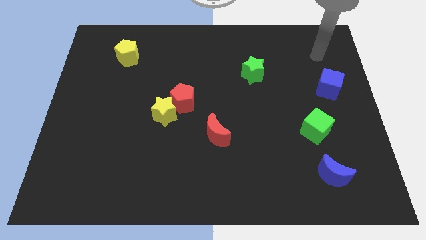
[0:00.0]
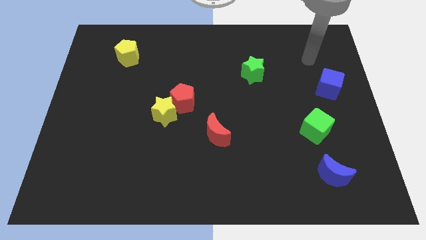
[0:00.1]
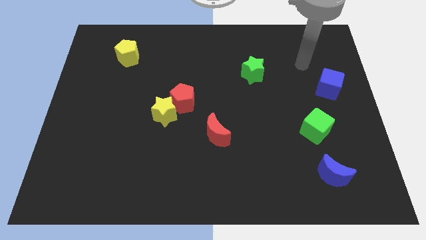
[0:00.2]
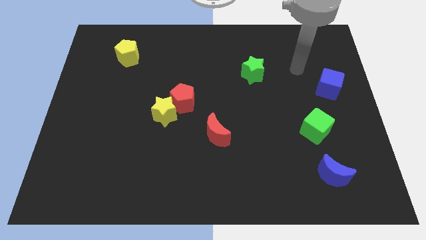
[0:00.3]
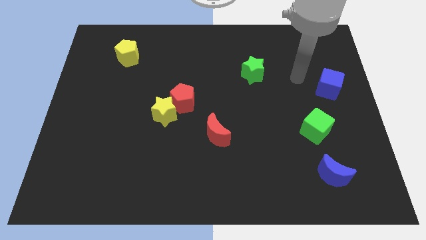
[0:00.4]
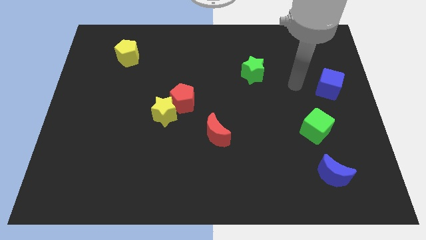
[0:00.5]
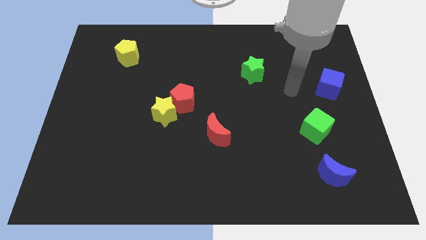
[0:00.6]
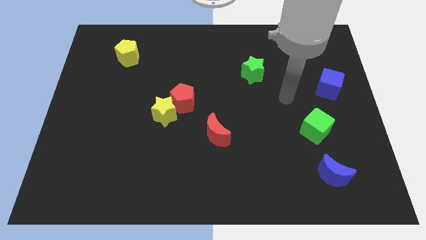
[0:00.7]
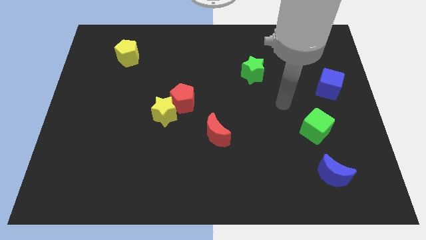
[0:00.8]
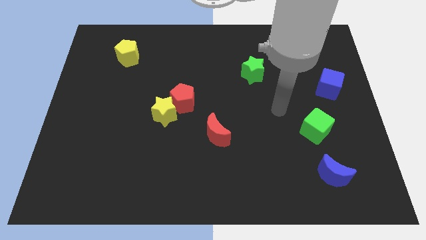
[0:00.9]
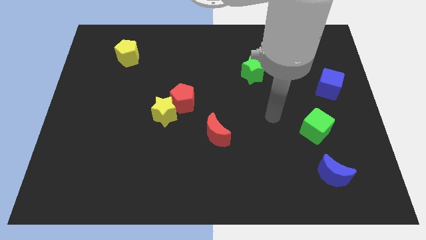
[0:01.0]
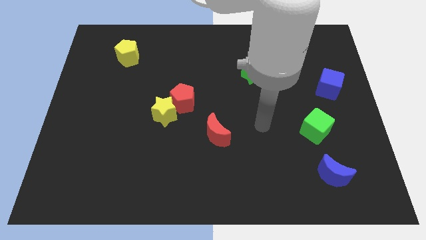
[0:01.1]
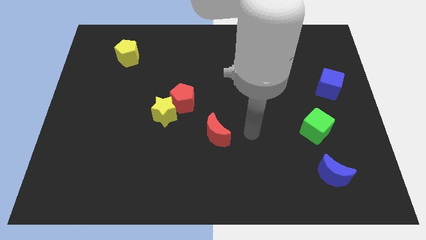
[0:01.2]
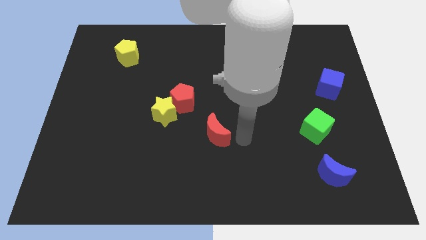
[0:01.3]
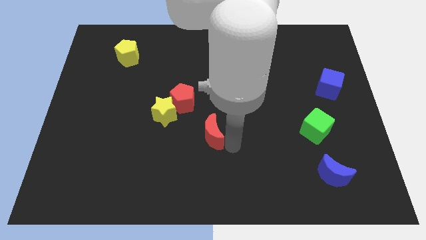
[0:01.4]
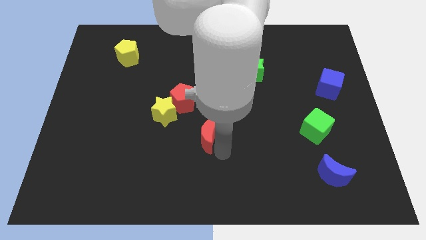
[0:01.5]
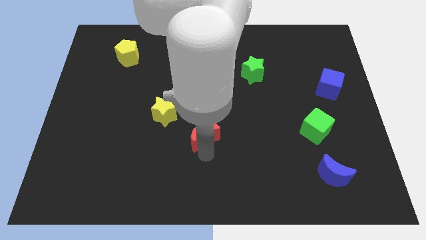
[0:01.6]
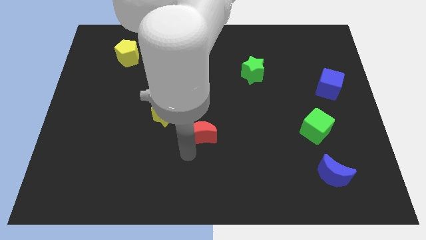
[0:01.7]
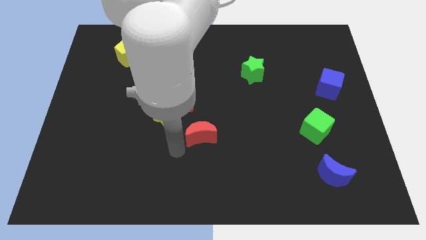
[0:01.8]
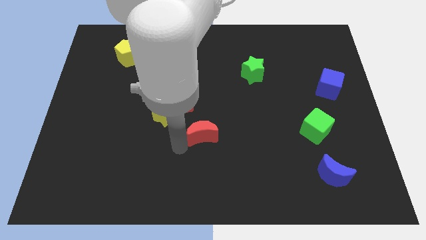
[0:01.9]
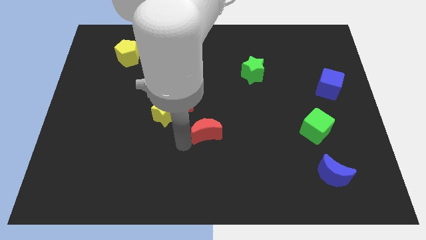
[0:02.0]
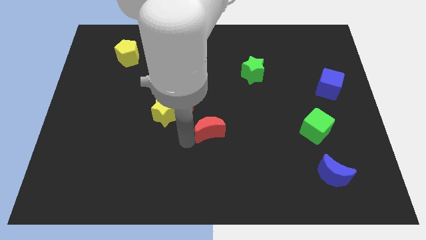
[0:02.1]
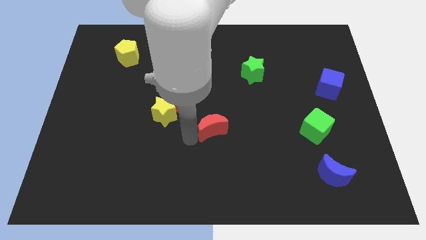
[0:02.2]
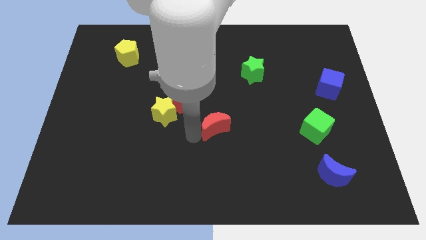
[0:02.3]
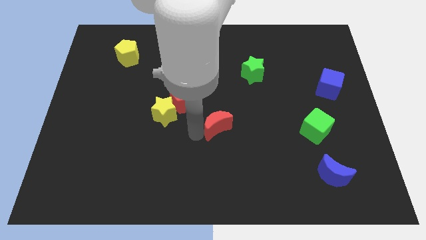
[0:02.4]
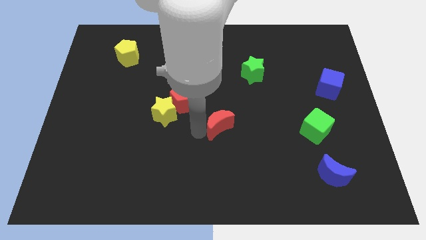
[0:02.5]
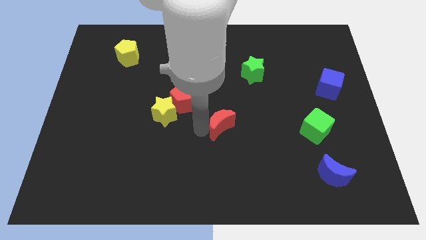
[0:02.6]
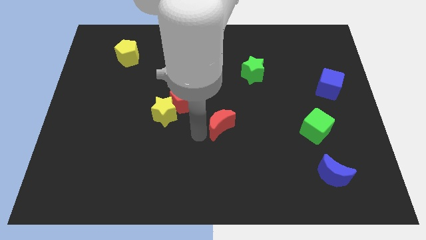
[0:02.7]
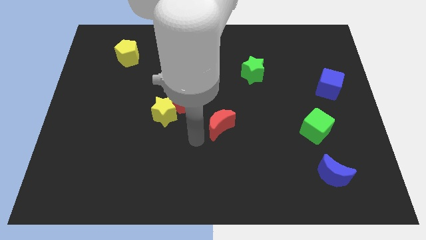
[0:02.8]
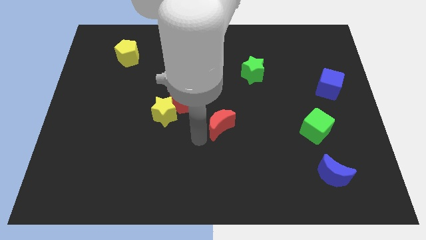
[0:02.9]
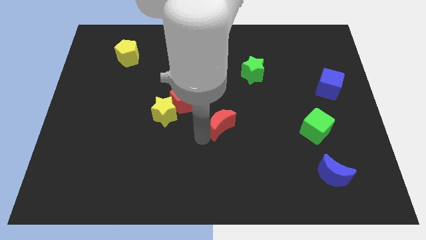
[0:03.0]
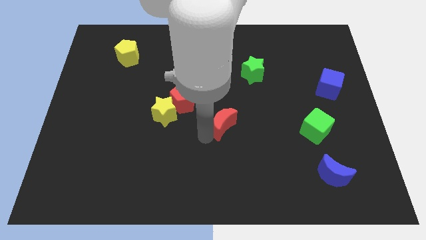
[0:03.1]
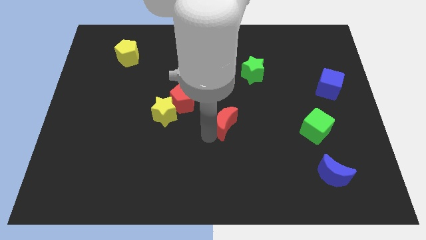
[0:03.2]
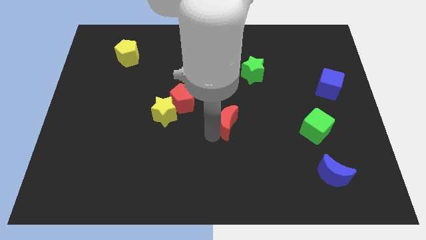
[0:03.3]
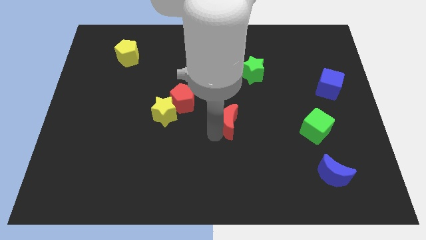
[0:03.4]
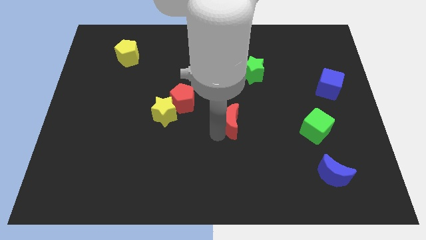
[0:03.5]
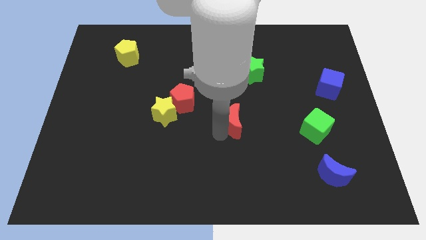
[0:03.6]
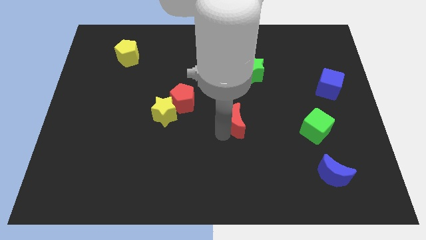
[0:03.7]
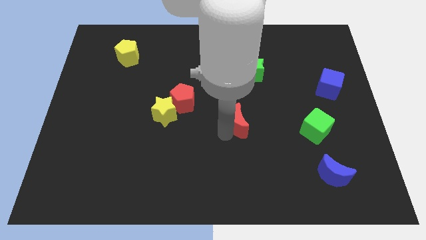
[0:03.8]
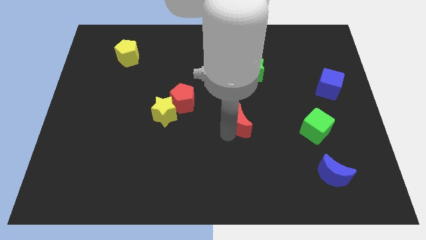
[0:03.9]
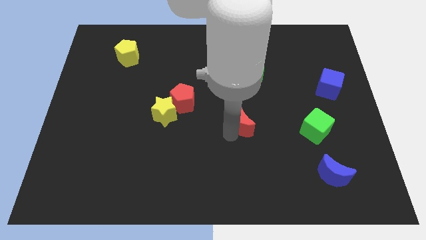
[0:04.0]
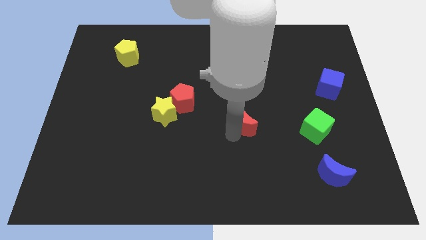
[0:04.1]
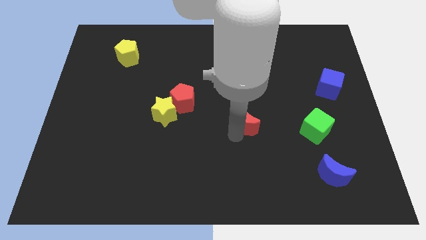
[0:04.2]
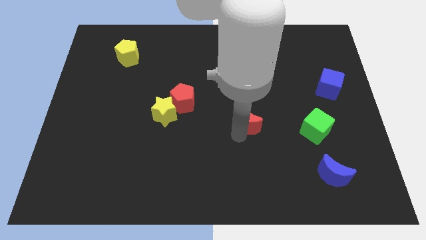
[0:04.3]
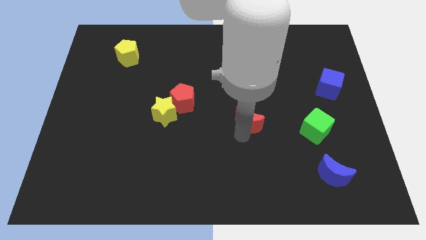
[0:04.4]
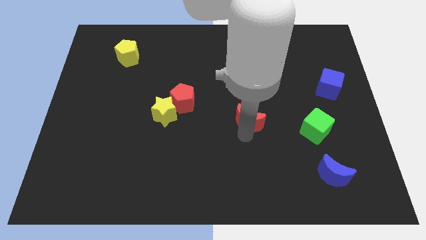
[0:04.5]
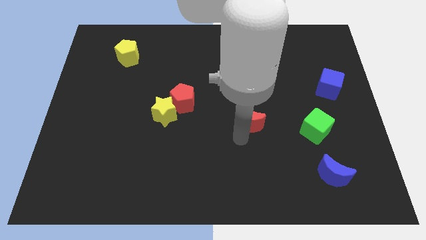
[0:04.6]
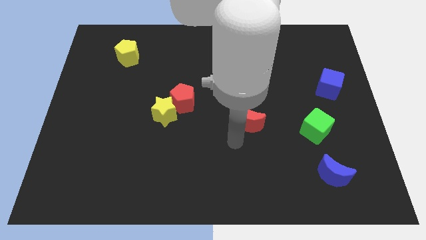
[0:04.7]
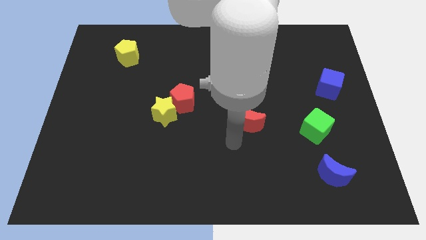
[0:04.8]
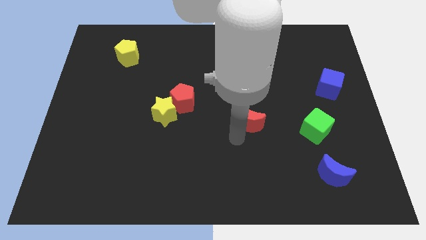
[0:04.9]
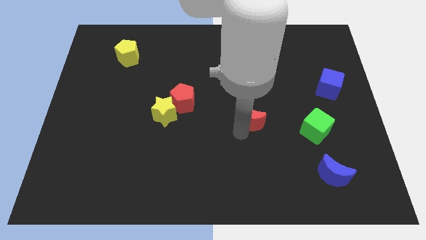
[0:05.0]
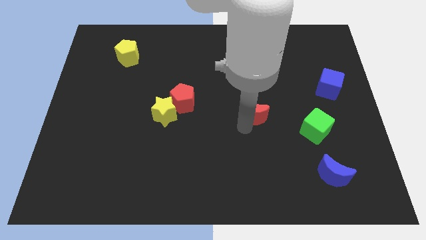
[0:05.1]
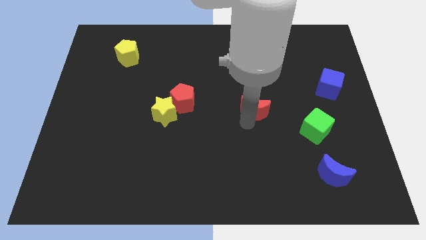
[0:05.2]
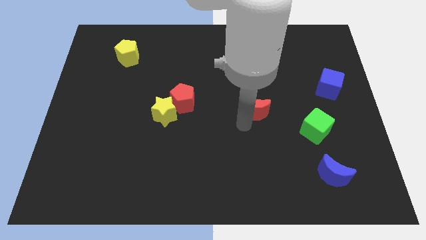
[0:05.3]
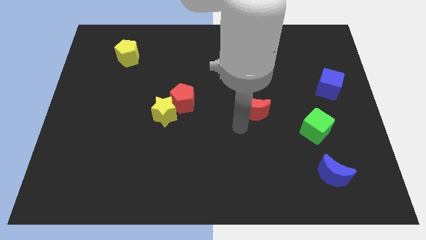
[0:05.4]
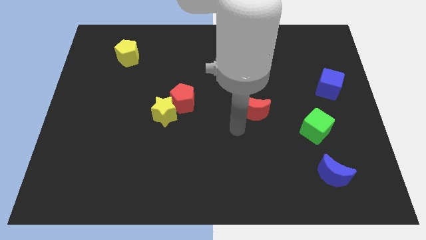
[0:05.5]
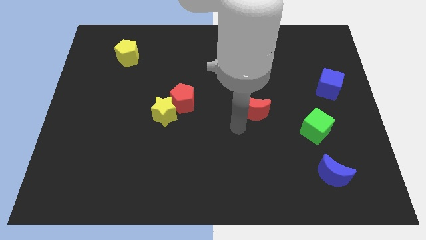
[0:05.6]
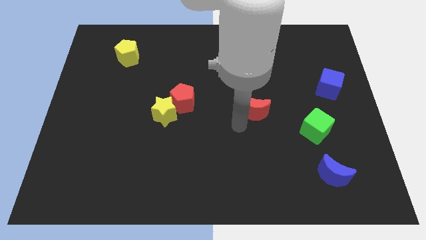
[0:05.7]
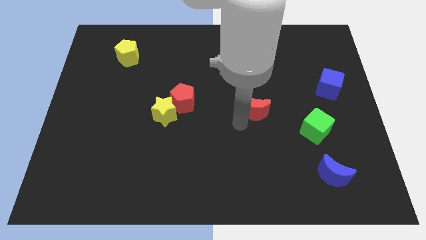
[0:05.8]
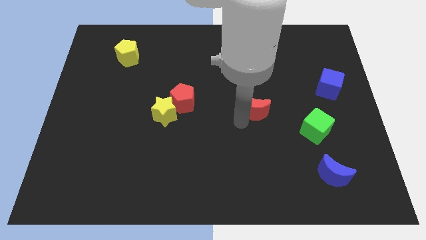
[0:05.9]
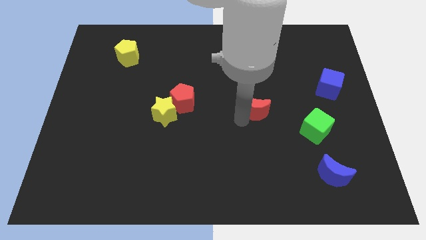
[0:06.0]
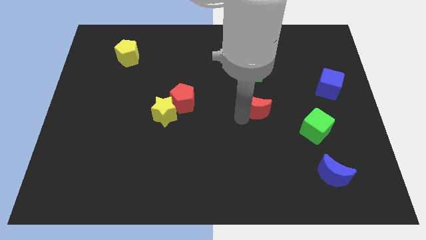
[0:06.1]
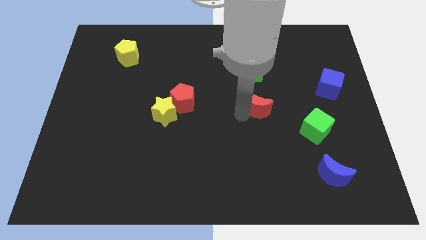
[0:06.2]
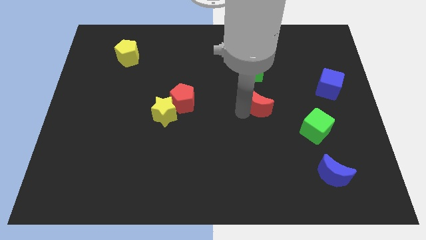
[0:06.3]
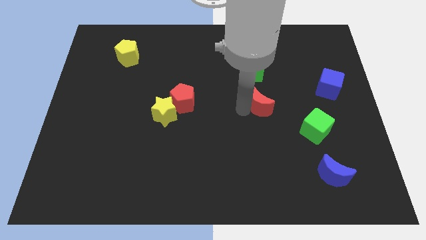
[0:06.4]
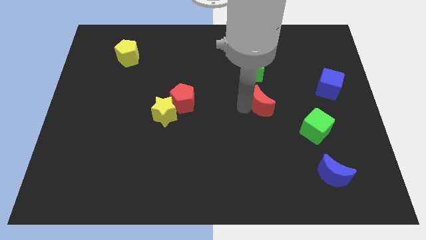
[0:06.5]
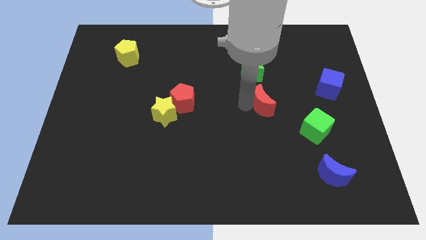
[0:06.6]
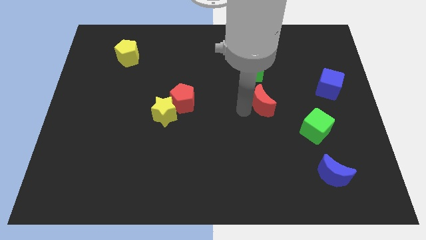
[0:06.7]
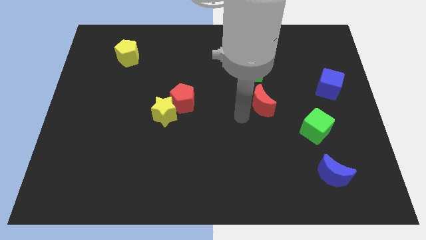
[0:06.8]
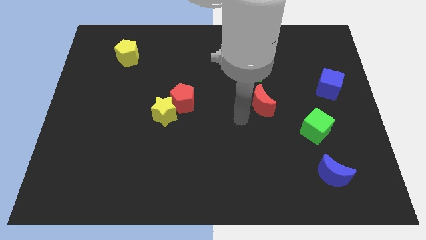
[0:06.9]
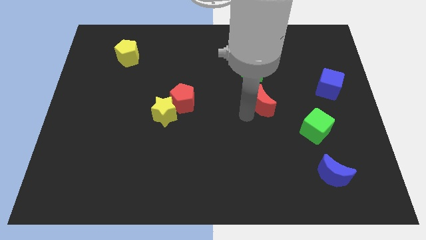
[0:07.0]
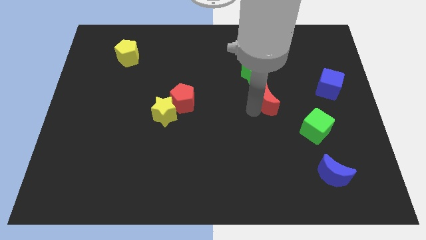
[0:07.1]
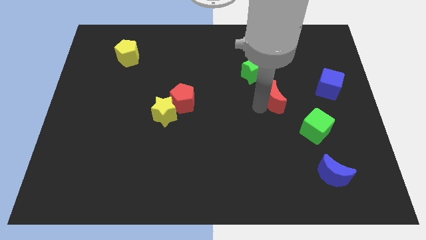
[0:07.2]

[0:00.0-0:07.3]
move the red moon left of the blue cube
